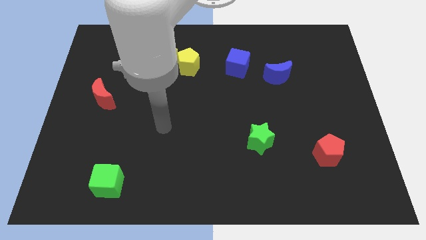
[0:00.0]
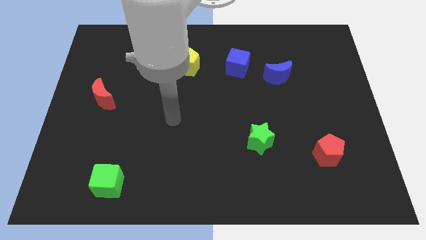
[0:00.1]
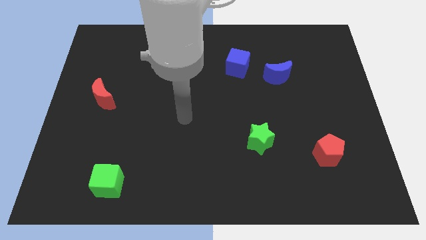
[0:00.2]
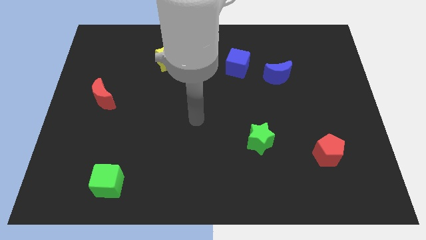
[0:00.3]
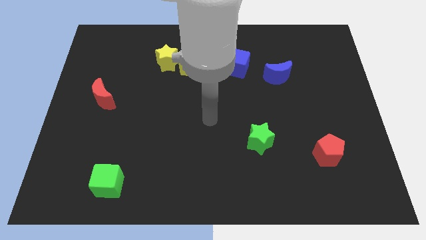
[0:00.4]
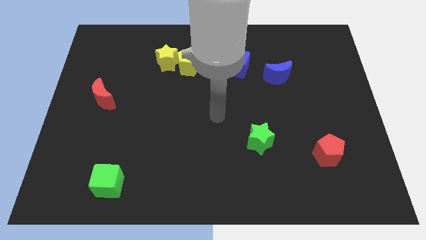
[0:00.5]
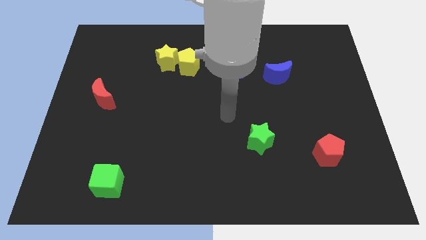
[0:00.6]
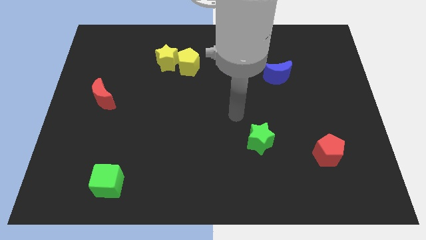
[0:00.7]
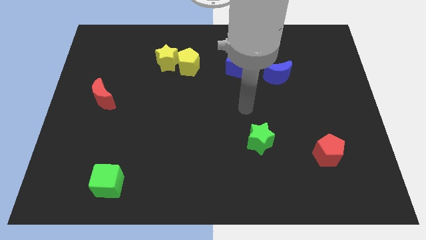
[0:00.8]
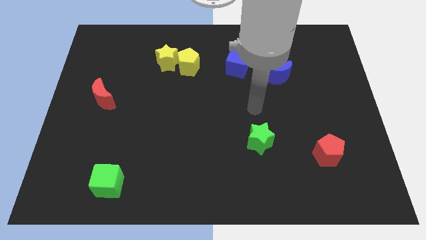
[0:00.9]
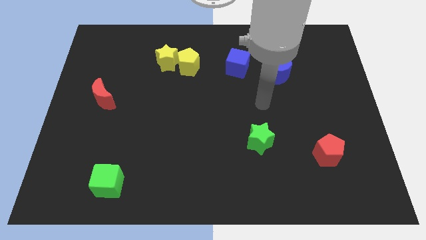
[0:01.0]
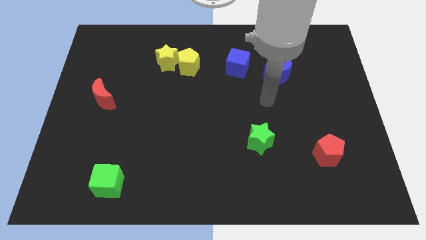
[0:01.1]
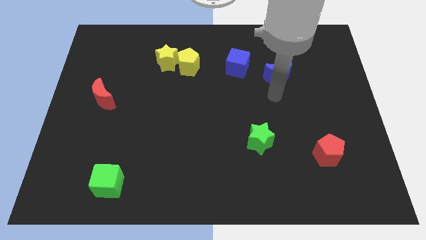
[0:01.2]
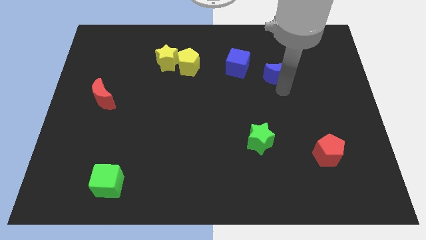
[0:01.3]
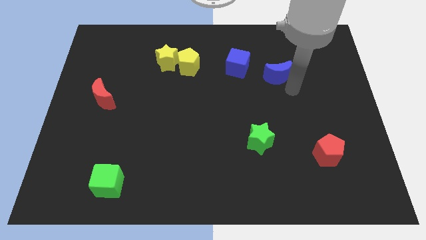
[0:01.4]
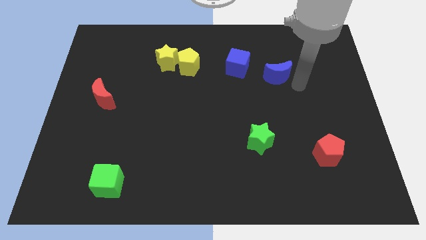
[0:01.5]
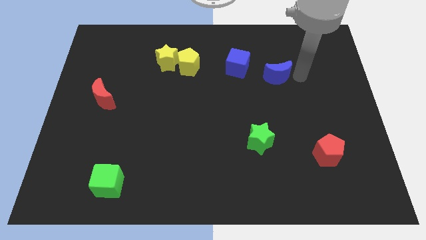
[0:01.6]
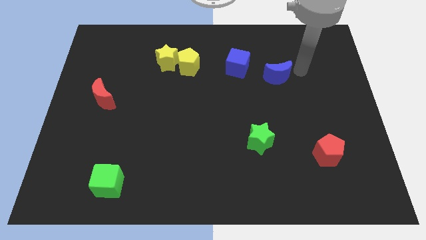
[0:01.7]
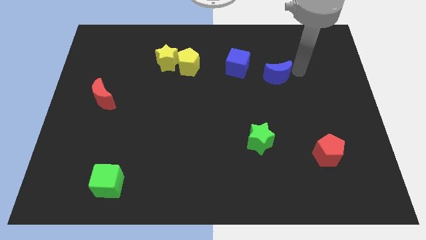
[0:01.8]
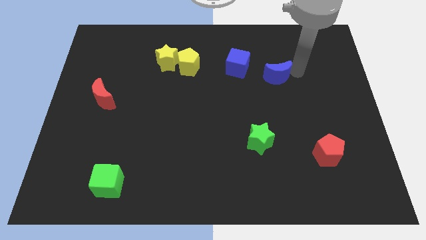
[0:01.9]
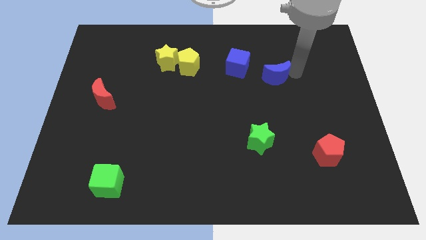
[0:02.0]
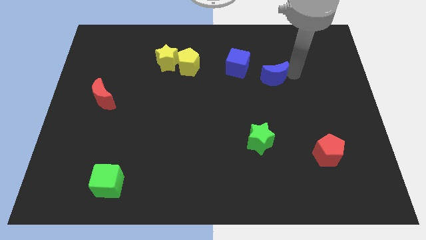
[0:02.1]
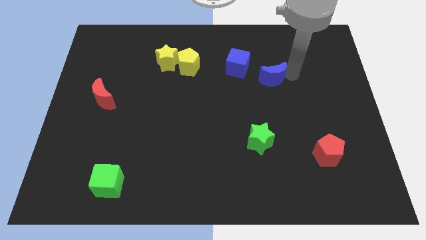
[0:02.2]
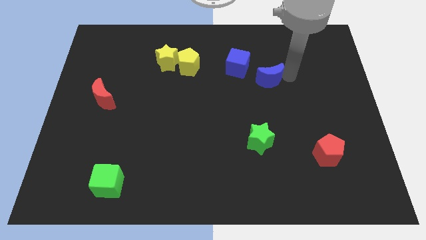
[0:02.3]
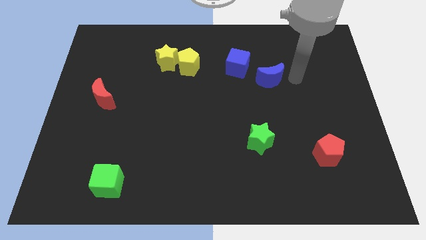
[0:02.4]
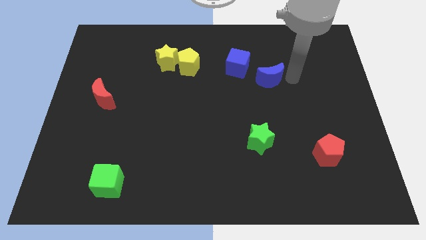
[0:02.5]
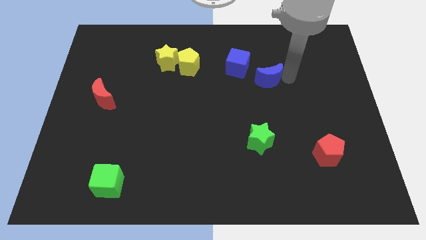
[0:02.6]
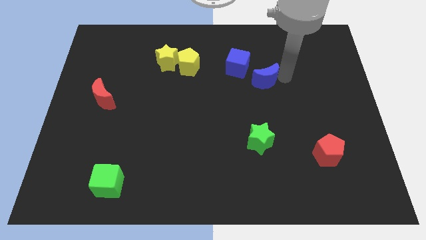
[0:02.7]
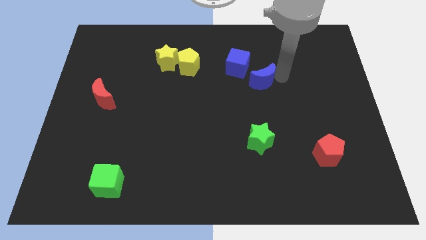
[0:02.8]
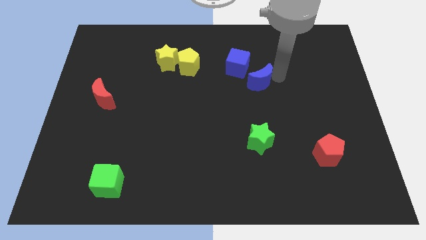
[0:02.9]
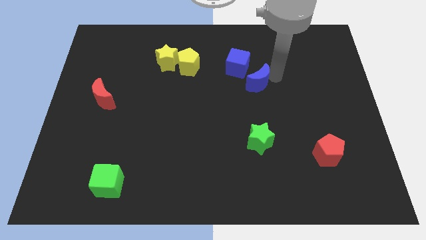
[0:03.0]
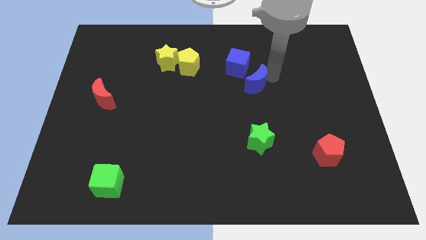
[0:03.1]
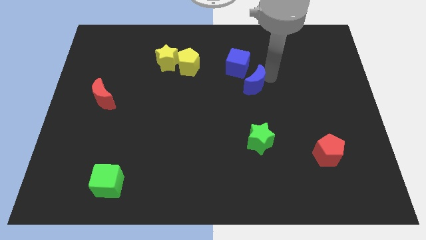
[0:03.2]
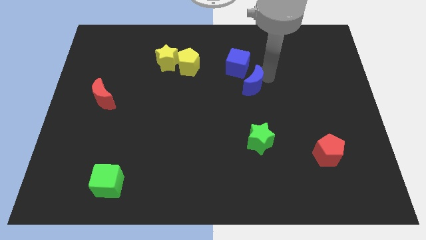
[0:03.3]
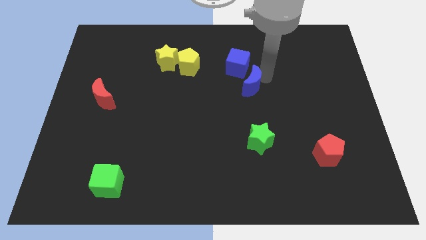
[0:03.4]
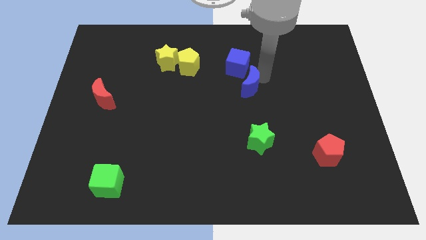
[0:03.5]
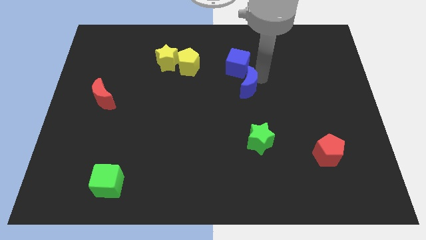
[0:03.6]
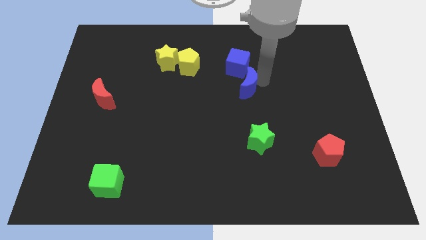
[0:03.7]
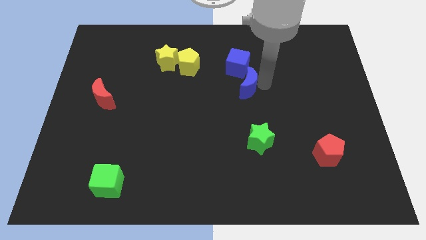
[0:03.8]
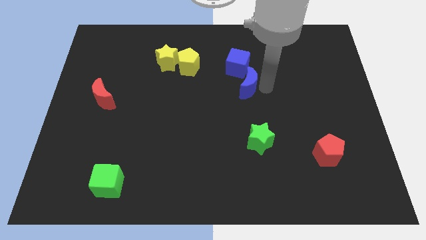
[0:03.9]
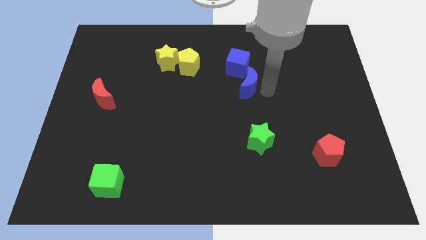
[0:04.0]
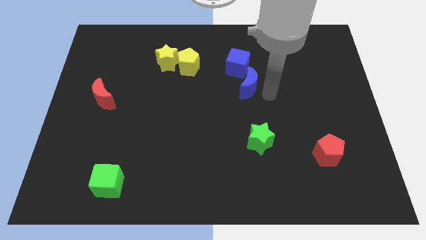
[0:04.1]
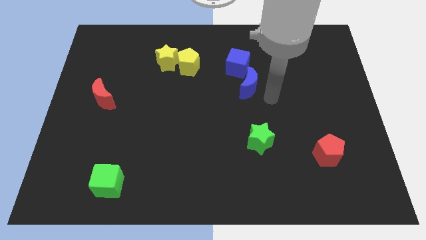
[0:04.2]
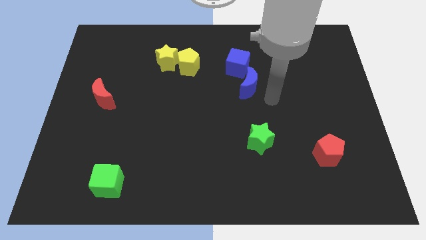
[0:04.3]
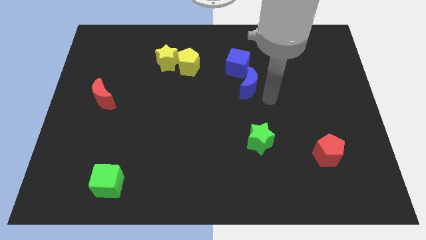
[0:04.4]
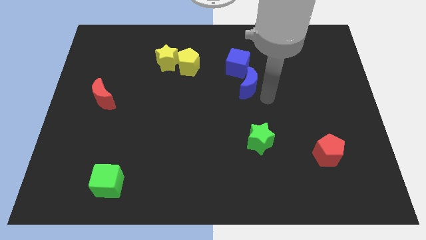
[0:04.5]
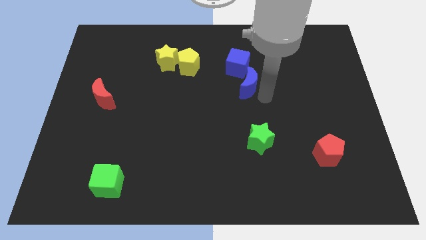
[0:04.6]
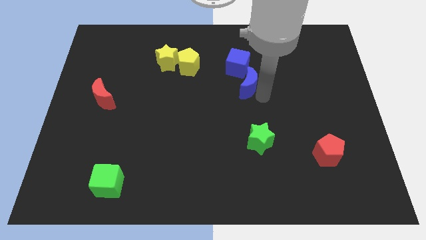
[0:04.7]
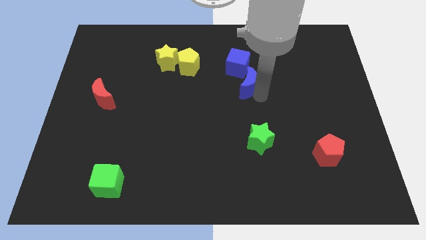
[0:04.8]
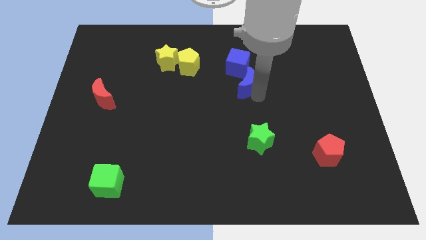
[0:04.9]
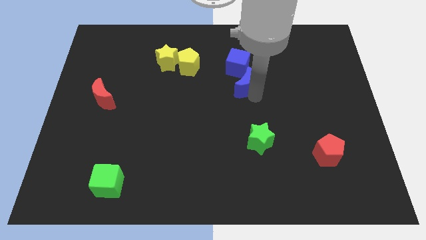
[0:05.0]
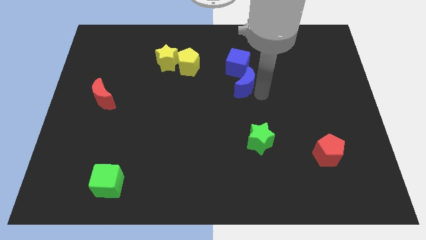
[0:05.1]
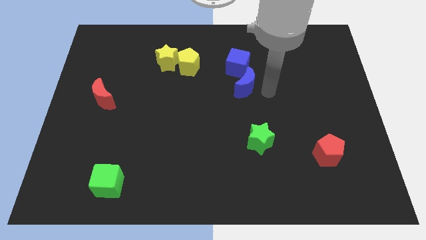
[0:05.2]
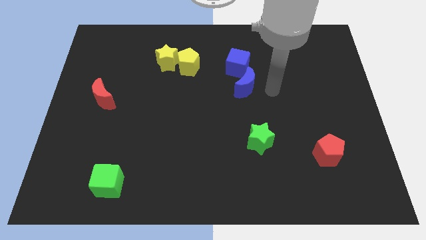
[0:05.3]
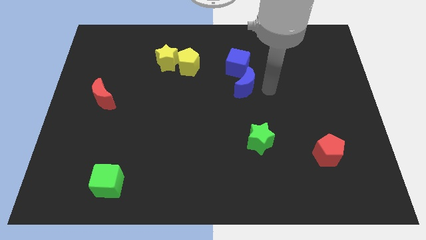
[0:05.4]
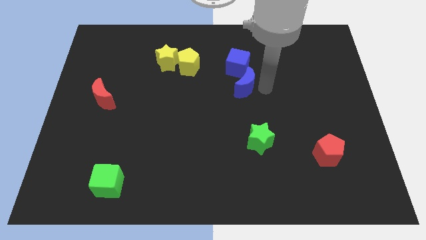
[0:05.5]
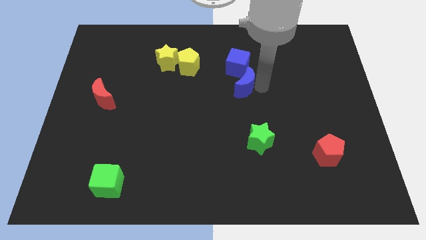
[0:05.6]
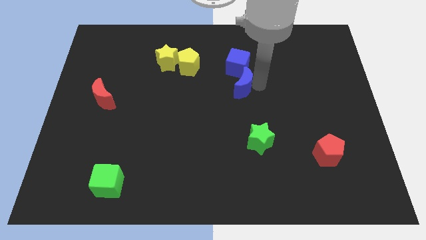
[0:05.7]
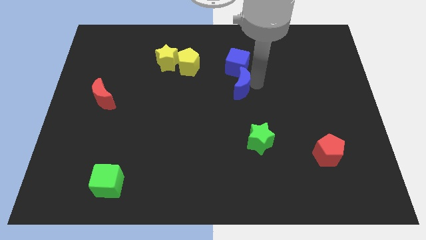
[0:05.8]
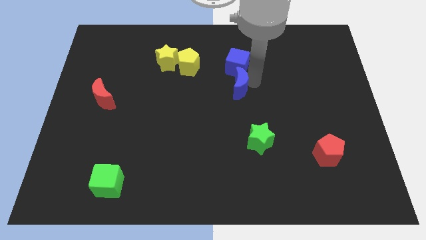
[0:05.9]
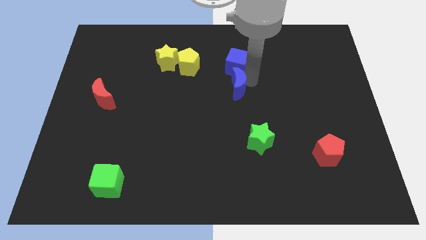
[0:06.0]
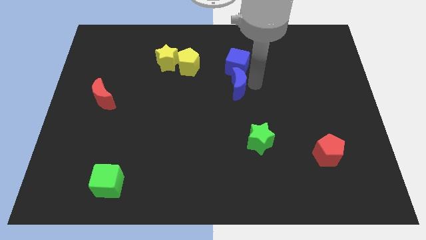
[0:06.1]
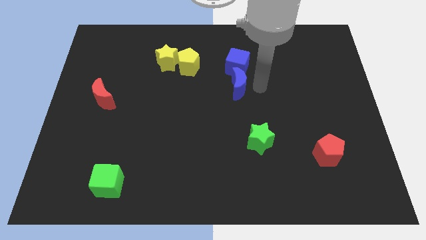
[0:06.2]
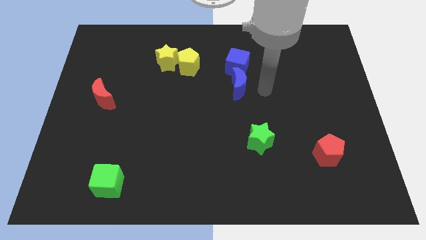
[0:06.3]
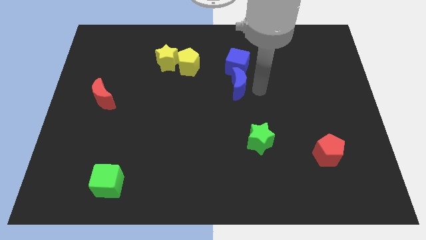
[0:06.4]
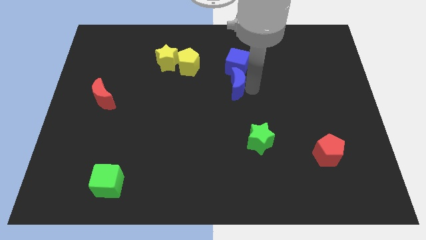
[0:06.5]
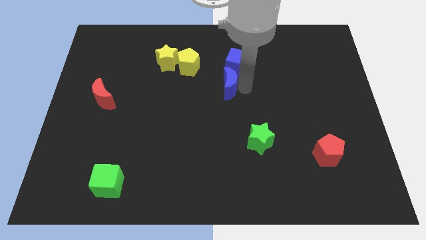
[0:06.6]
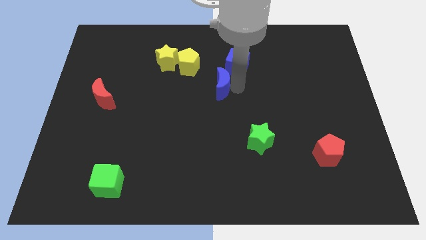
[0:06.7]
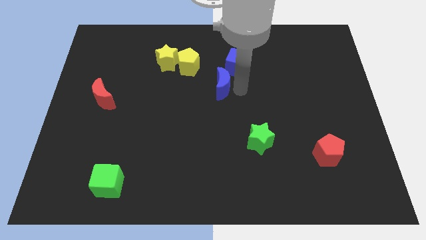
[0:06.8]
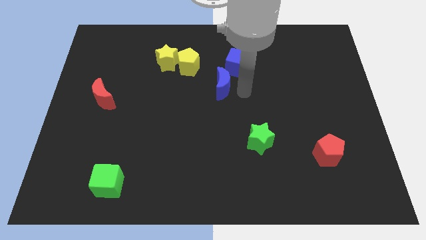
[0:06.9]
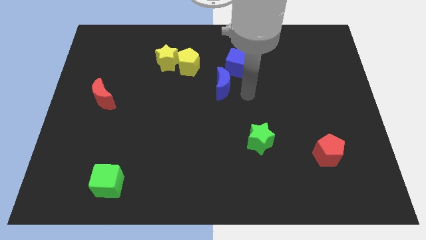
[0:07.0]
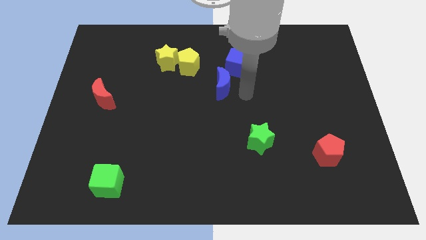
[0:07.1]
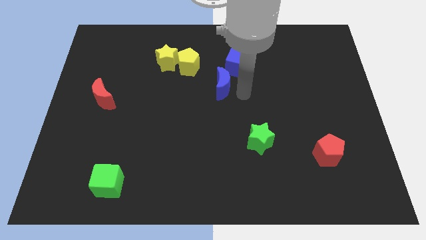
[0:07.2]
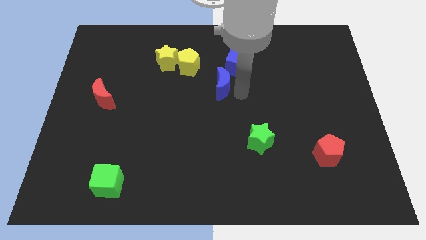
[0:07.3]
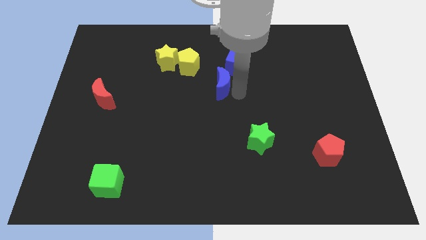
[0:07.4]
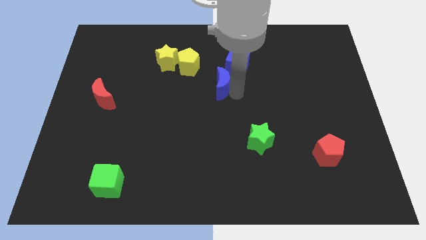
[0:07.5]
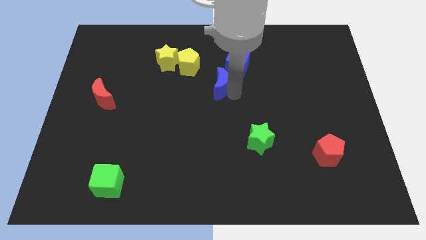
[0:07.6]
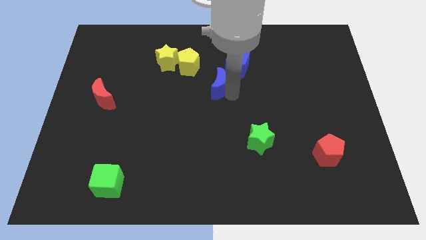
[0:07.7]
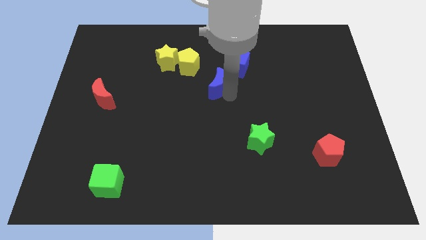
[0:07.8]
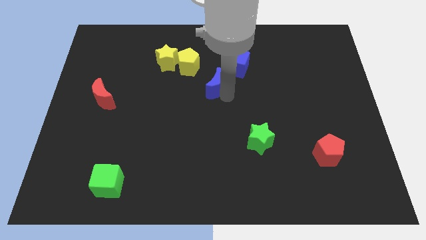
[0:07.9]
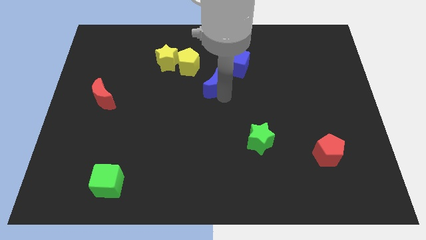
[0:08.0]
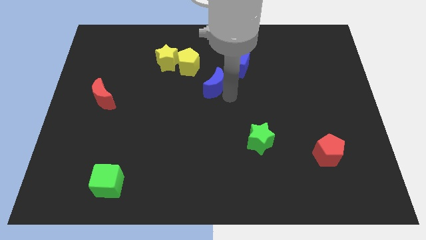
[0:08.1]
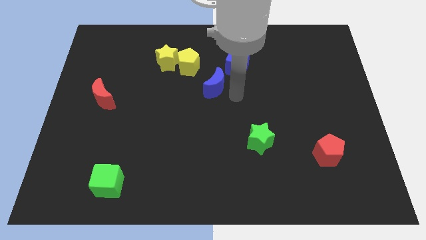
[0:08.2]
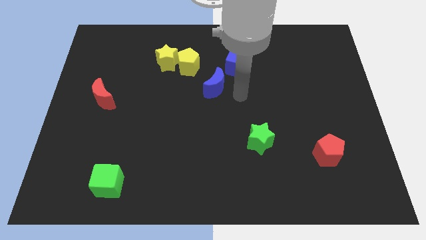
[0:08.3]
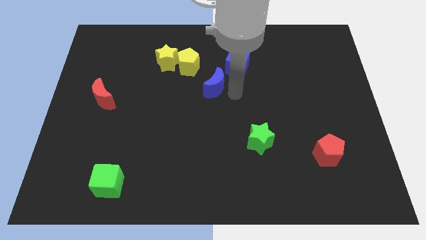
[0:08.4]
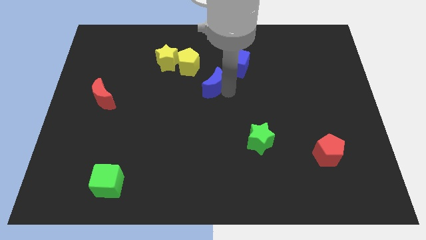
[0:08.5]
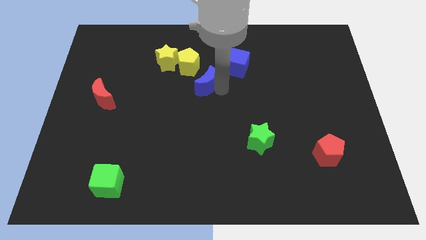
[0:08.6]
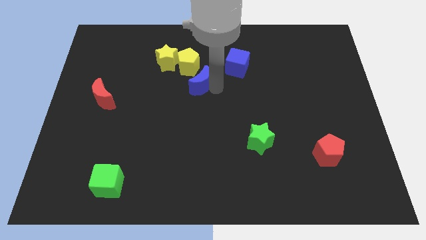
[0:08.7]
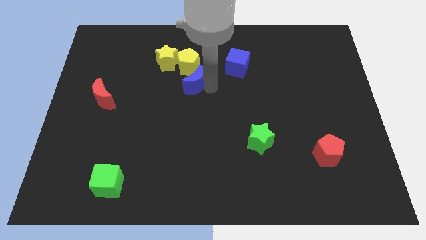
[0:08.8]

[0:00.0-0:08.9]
slide the blue moon to the left
